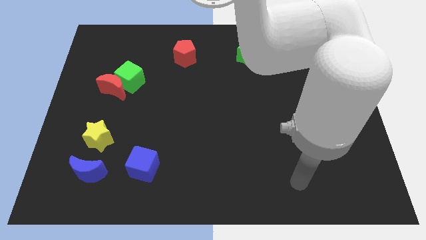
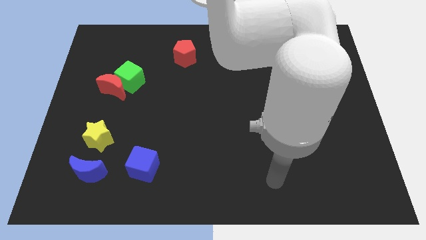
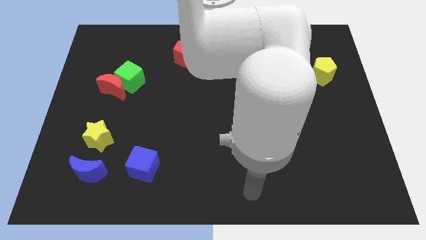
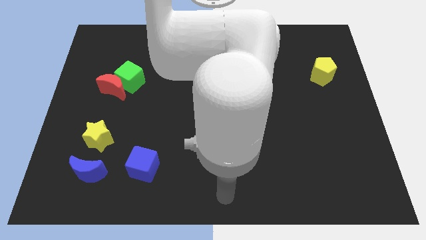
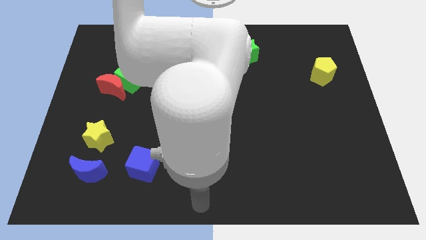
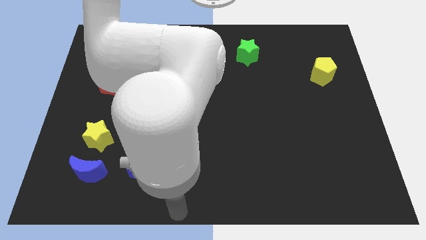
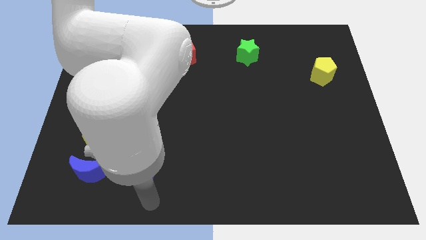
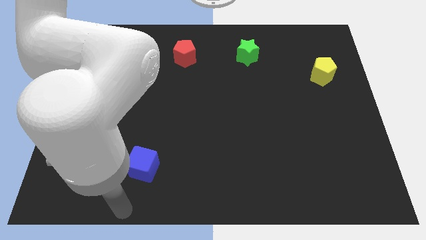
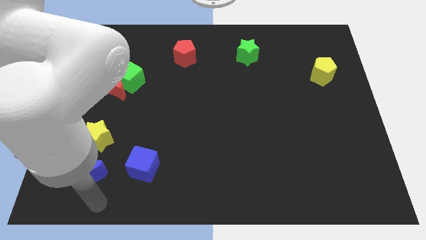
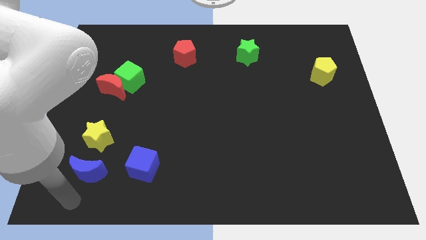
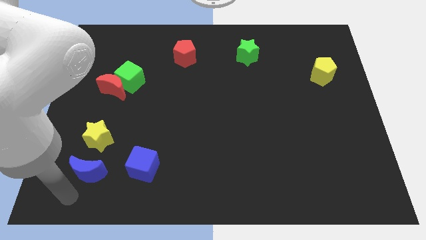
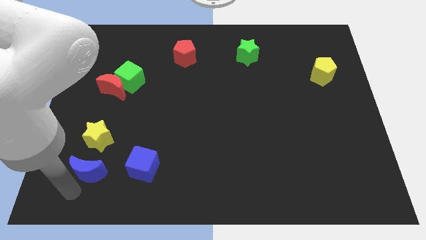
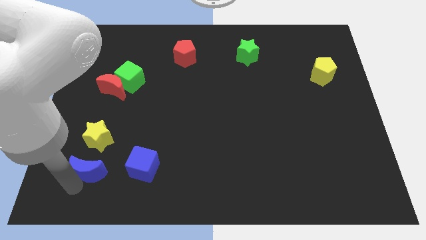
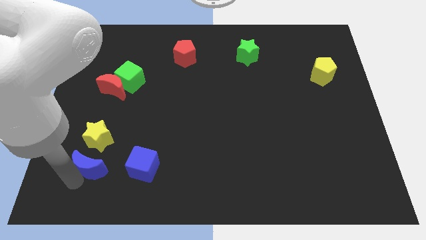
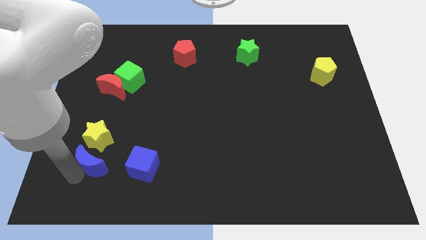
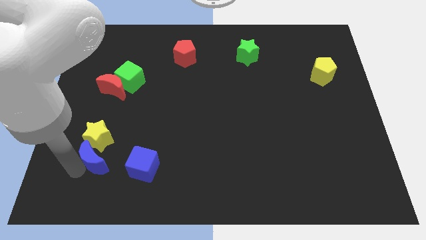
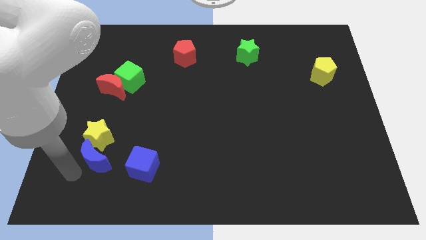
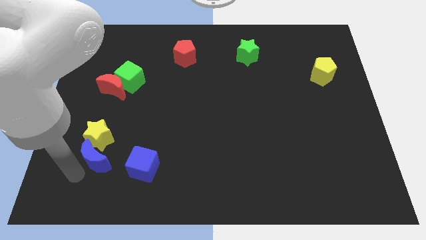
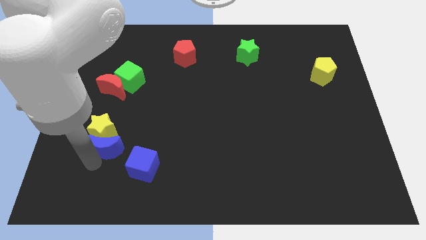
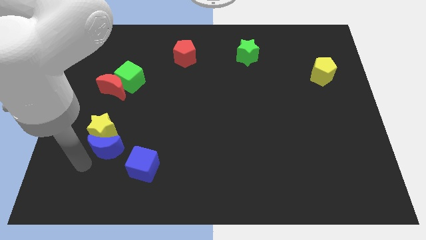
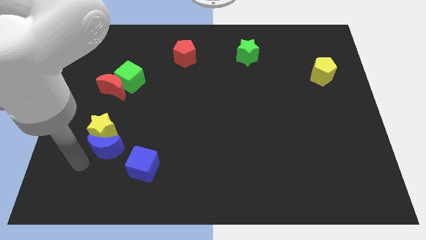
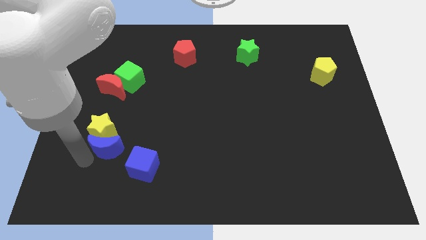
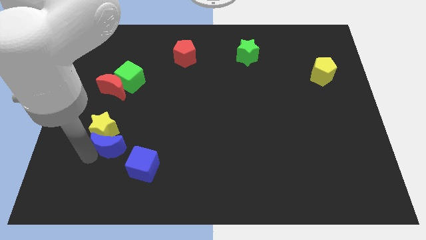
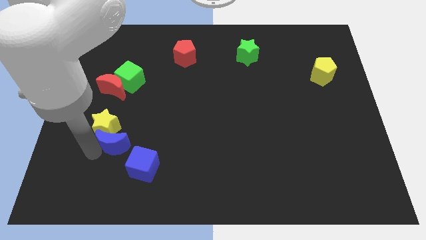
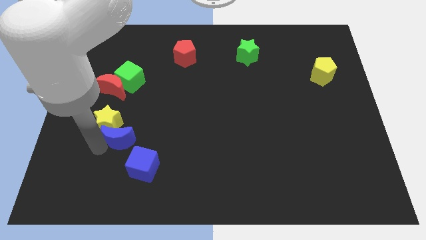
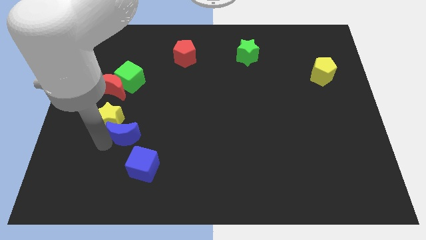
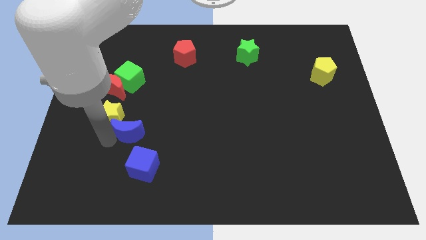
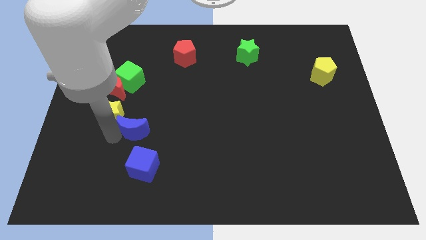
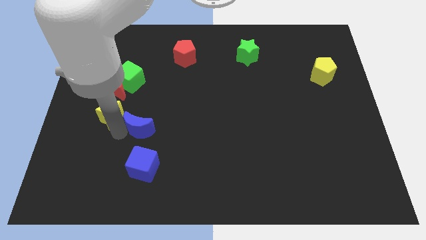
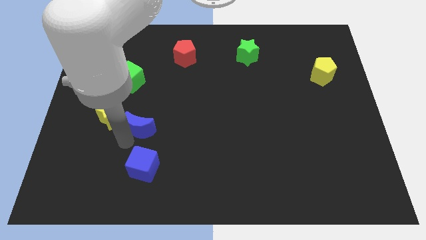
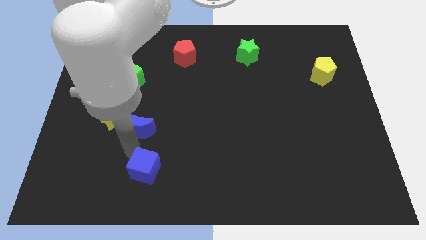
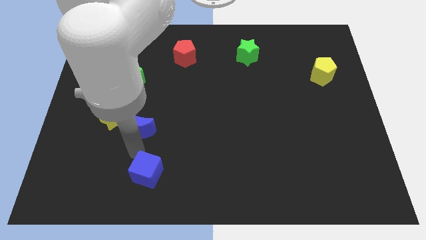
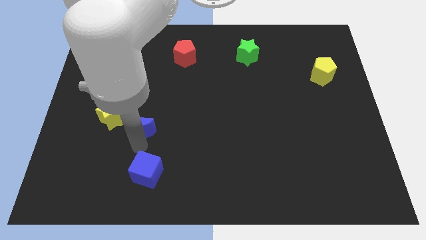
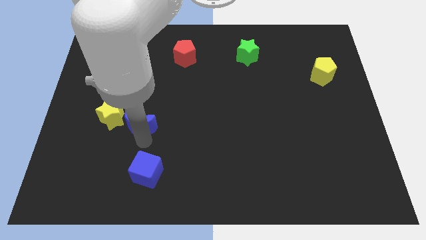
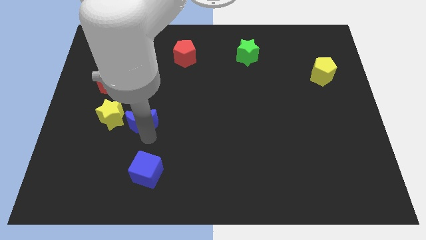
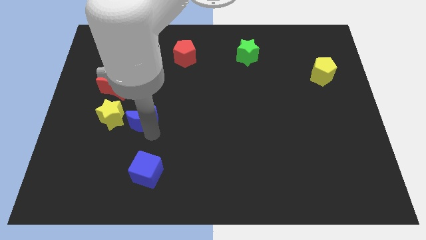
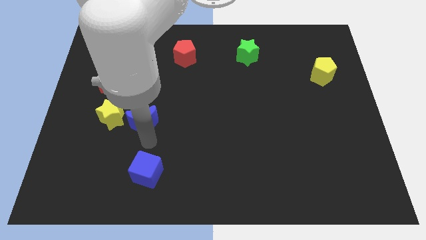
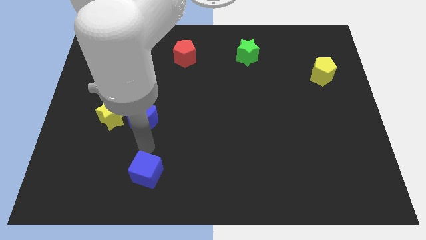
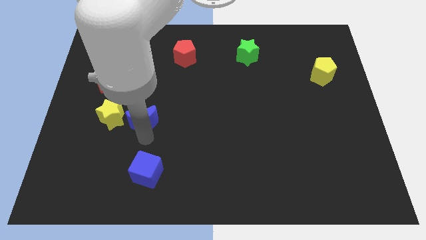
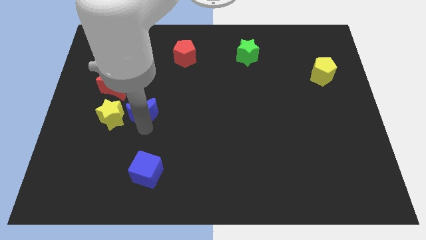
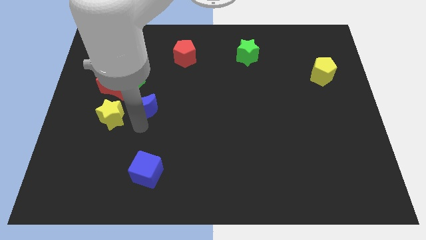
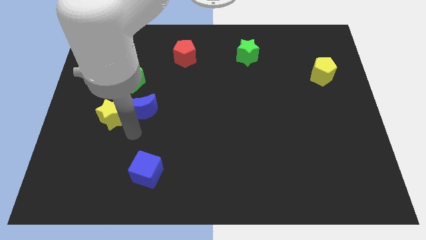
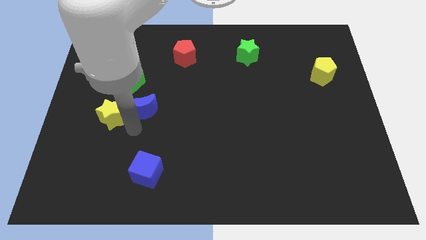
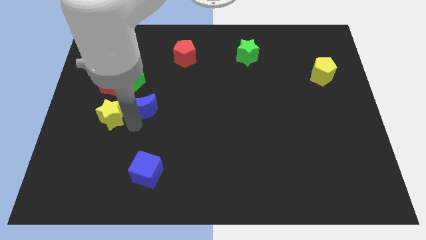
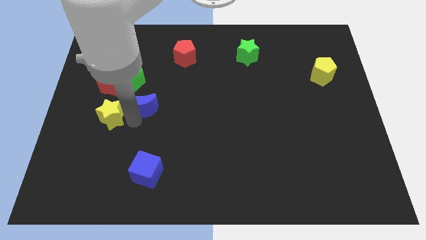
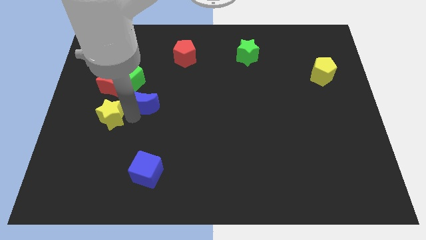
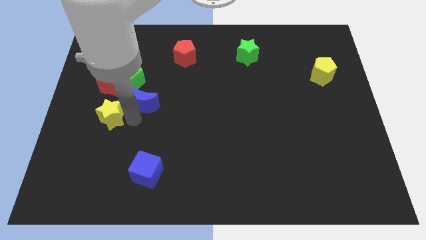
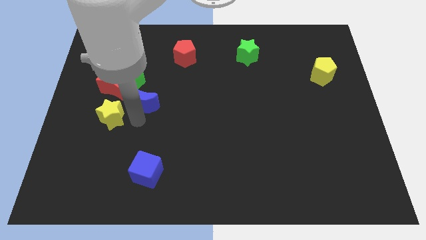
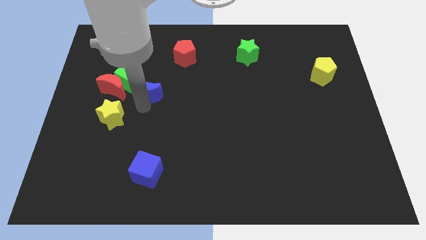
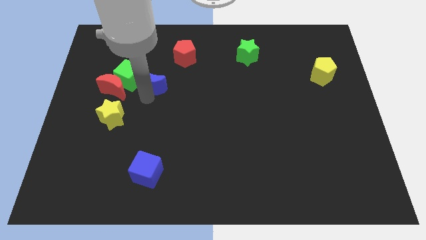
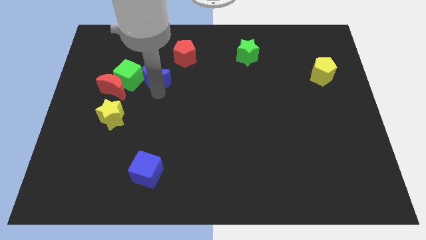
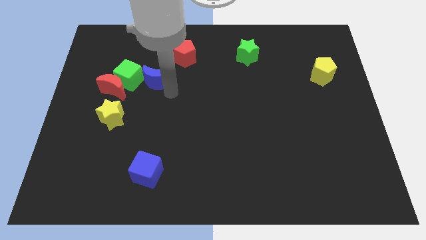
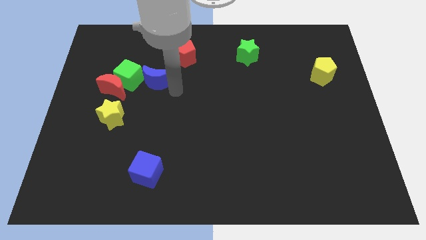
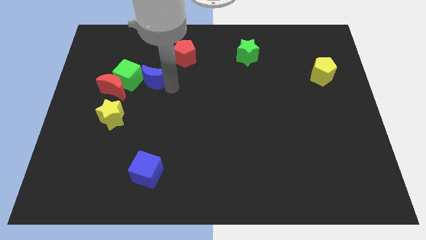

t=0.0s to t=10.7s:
put the blue moon diagonally up and to the right of the red moon

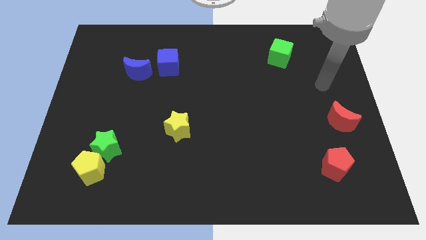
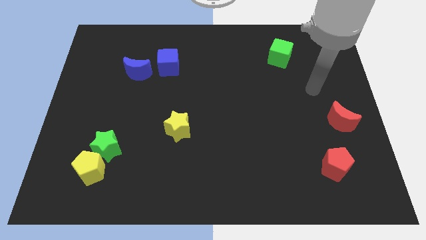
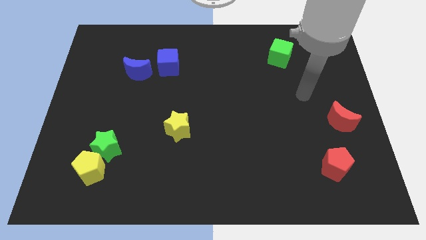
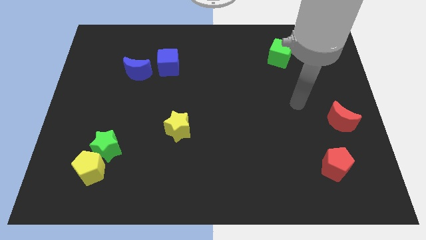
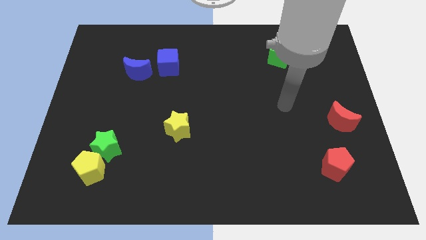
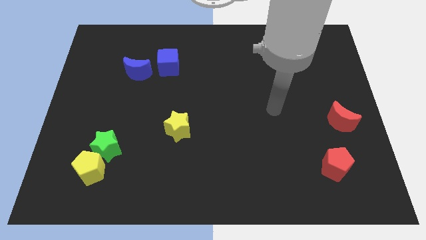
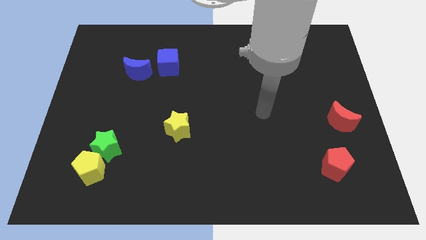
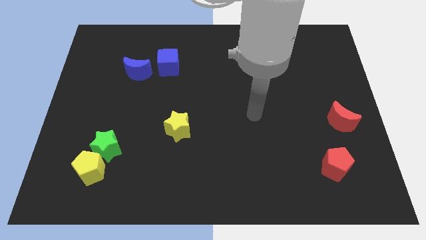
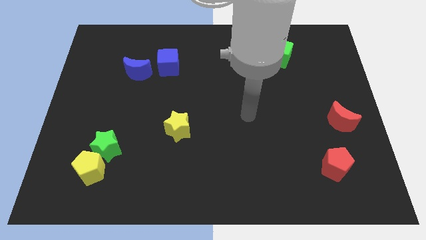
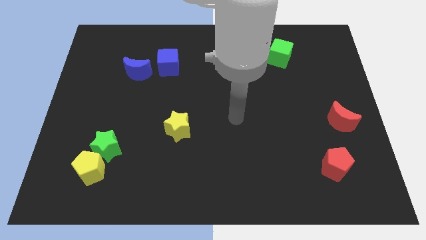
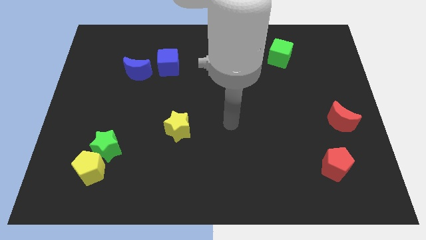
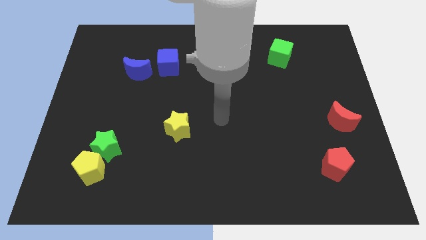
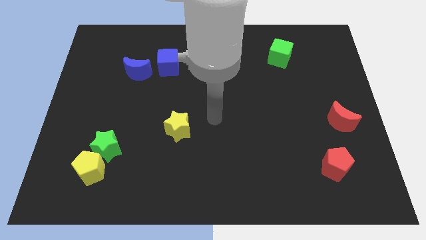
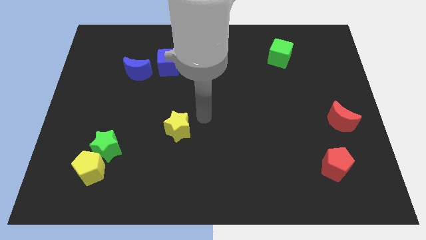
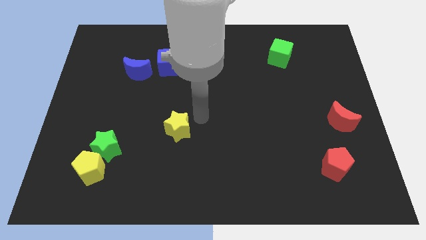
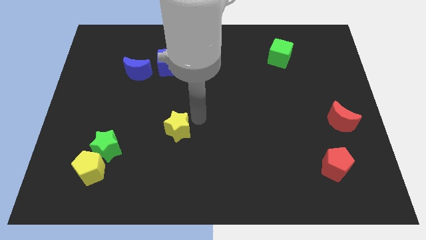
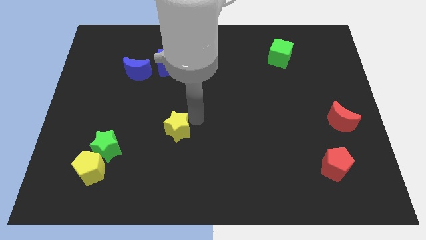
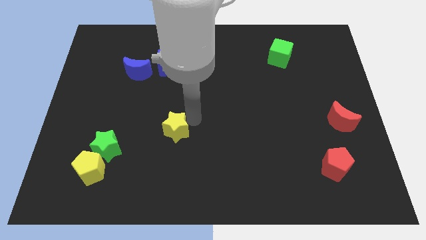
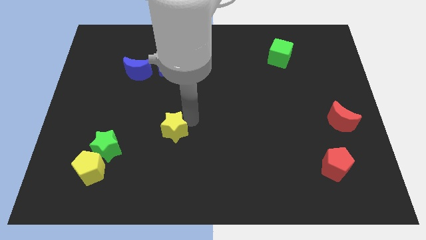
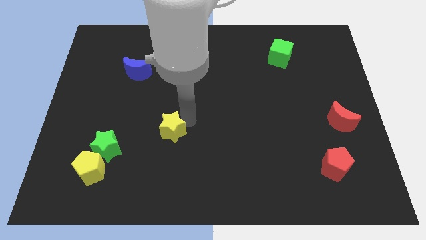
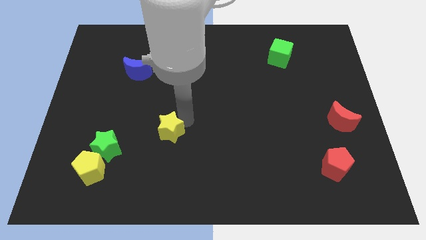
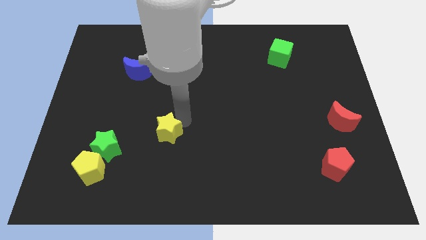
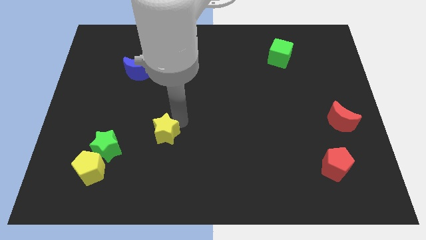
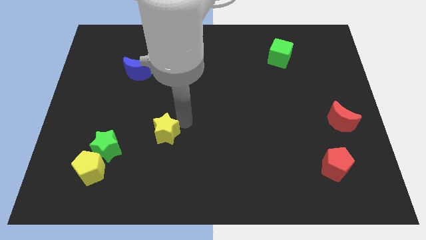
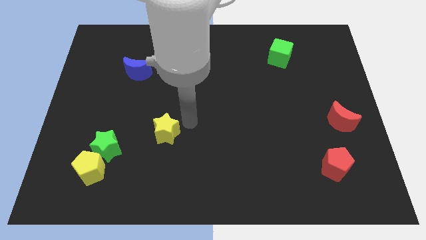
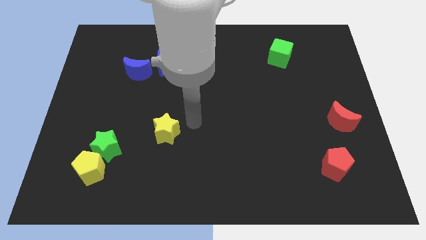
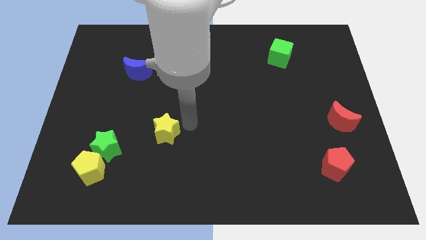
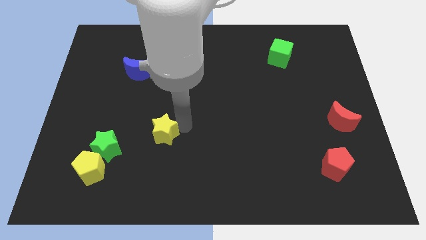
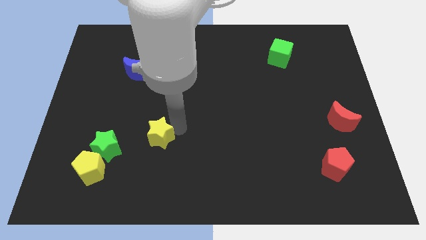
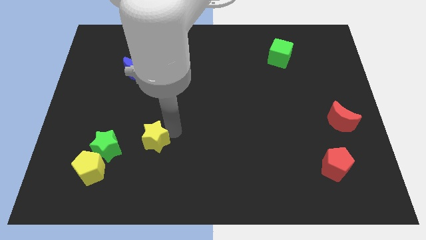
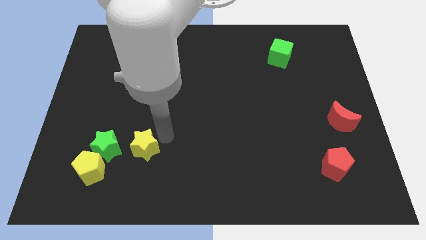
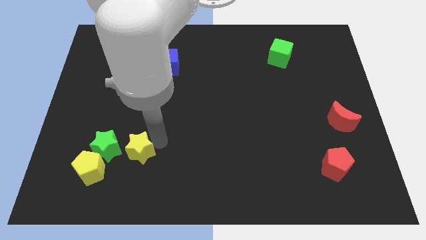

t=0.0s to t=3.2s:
slide the yellow star to the top right of the yellow pentagon
